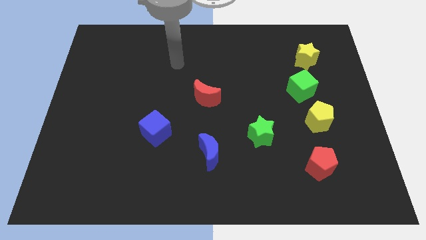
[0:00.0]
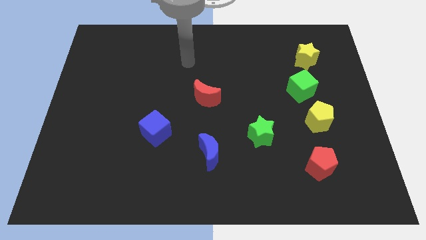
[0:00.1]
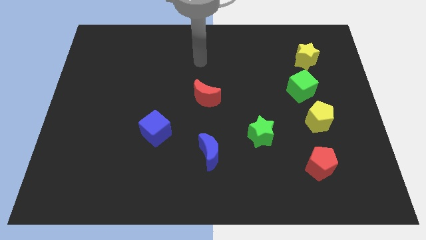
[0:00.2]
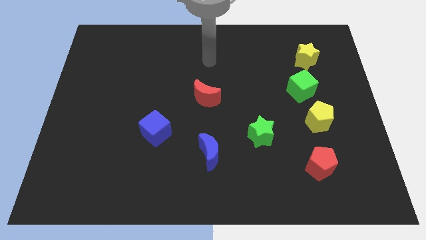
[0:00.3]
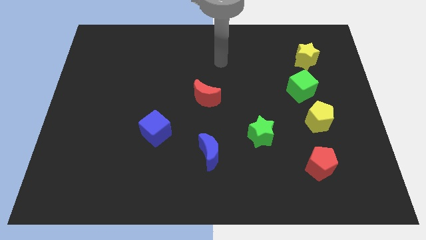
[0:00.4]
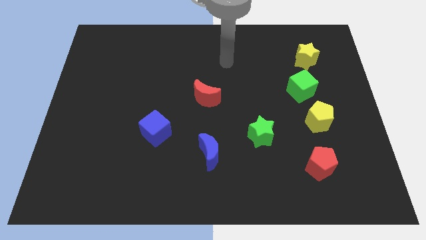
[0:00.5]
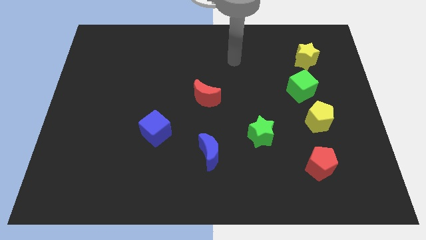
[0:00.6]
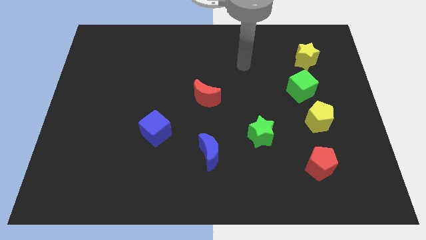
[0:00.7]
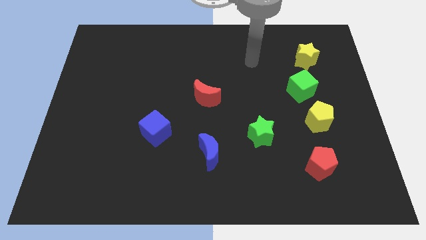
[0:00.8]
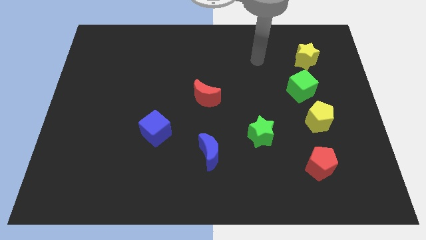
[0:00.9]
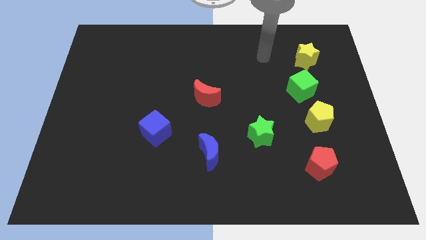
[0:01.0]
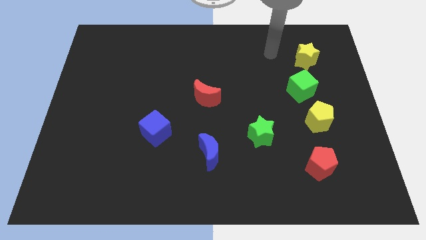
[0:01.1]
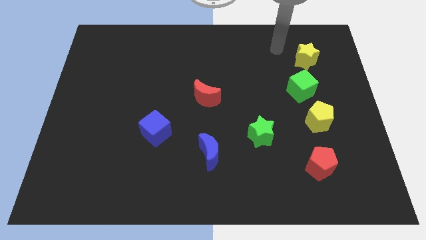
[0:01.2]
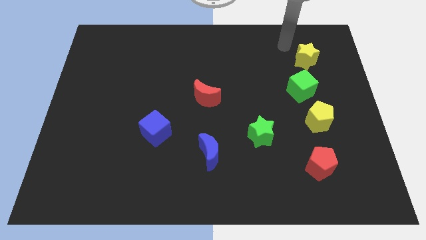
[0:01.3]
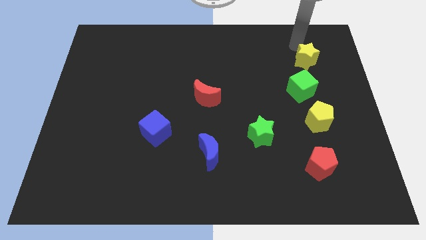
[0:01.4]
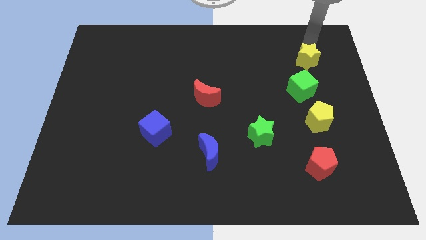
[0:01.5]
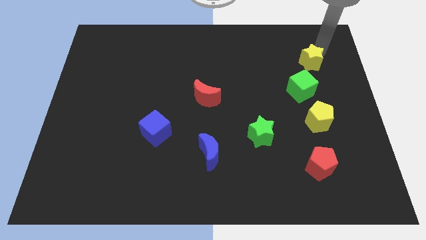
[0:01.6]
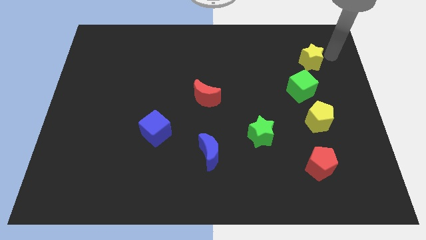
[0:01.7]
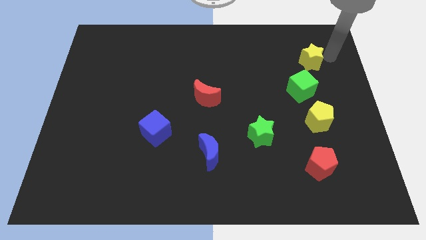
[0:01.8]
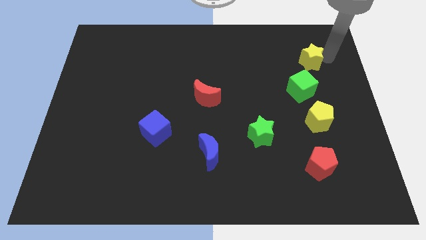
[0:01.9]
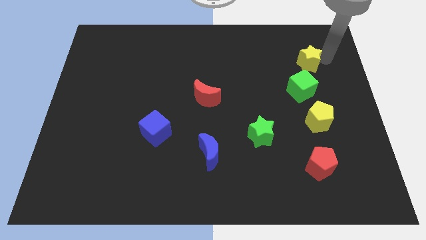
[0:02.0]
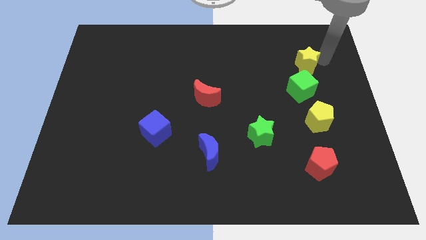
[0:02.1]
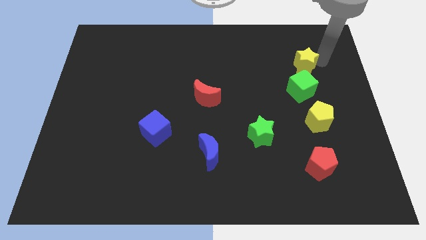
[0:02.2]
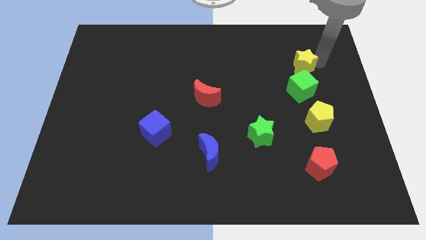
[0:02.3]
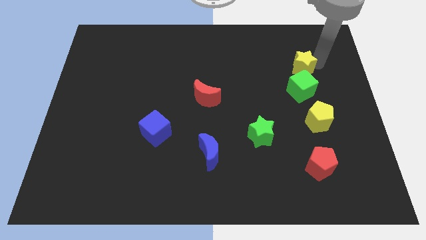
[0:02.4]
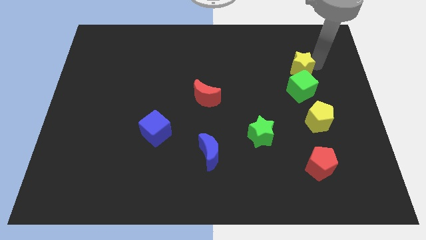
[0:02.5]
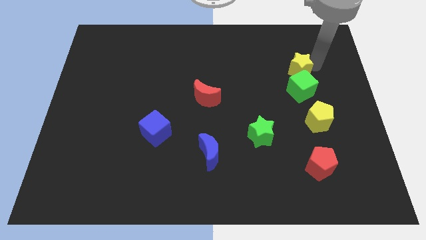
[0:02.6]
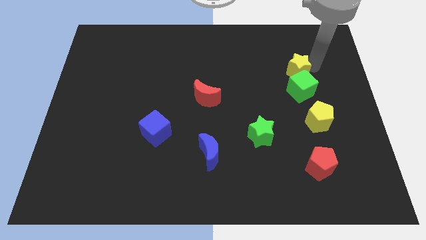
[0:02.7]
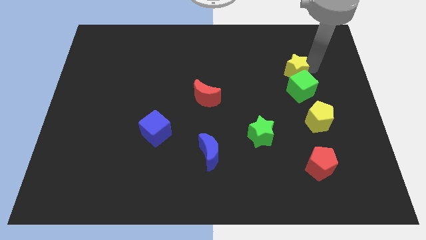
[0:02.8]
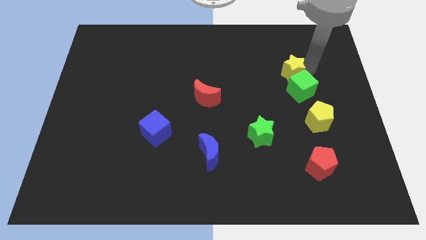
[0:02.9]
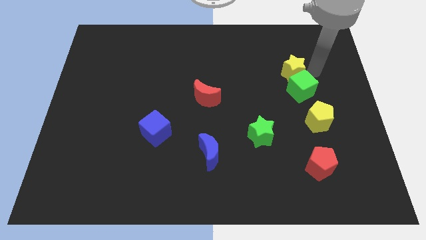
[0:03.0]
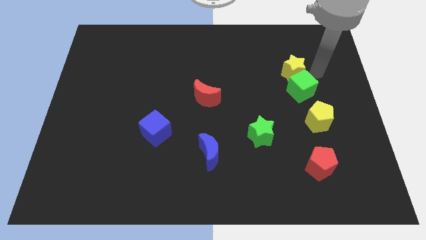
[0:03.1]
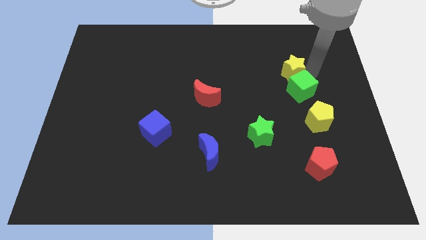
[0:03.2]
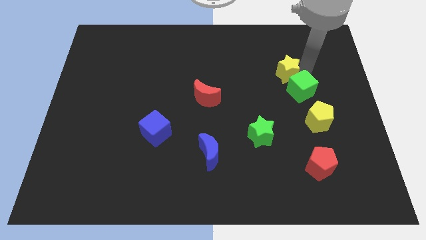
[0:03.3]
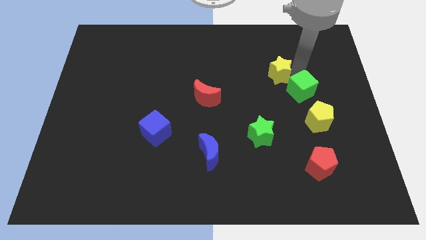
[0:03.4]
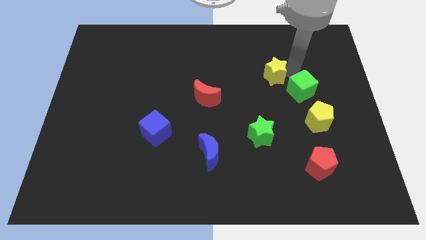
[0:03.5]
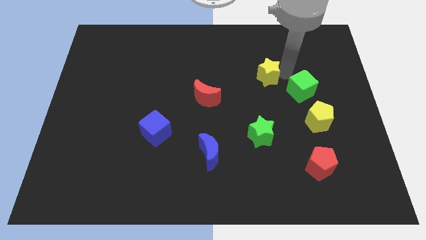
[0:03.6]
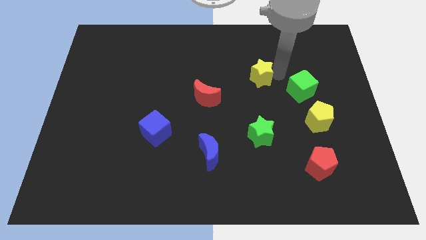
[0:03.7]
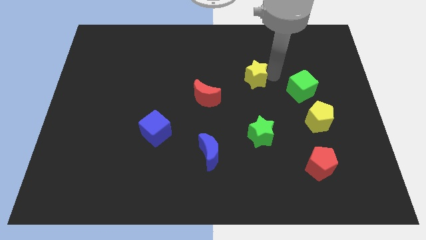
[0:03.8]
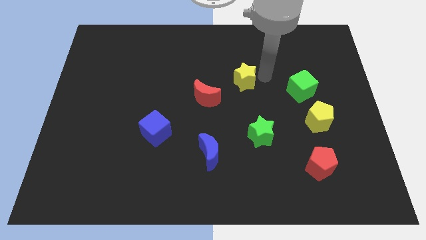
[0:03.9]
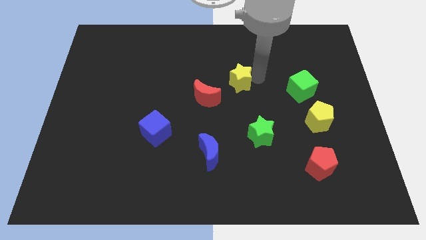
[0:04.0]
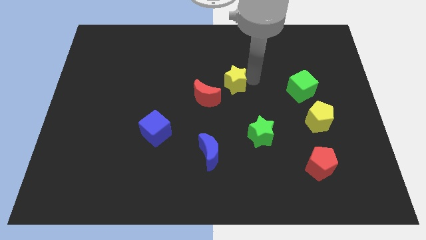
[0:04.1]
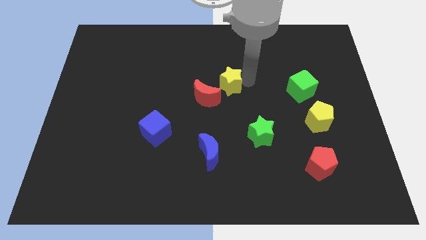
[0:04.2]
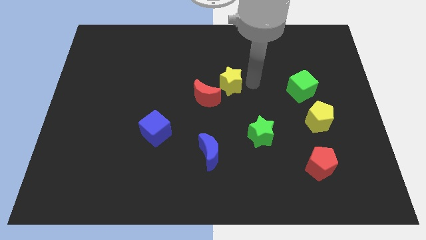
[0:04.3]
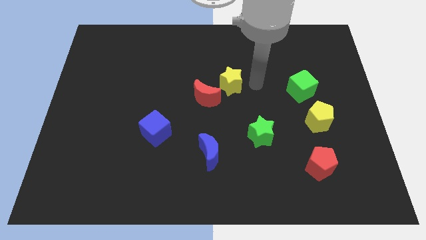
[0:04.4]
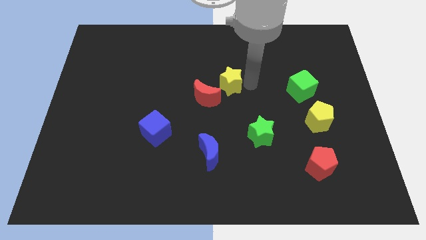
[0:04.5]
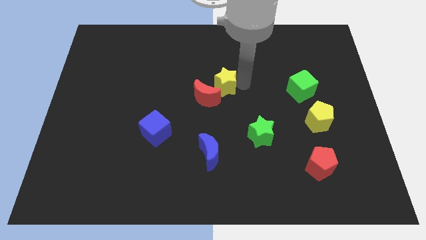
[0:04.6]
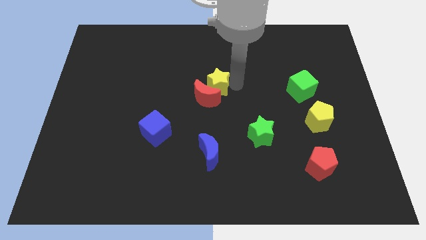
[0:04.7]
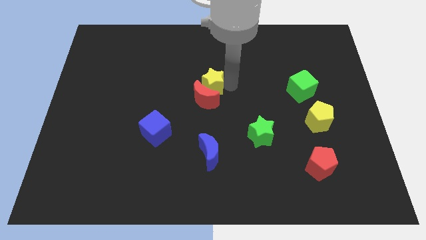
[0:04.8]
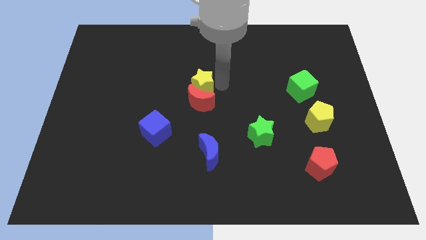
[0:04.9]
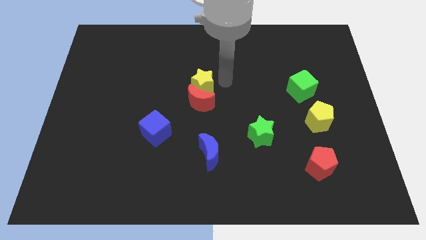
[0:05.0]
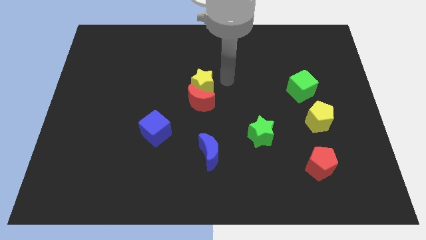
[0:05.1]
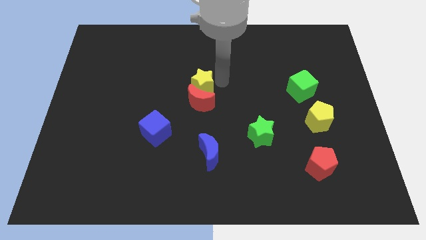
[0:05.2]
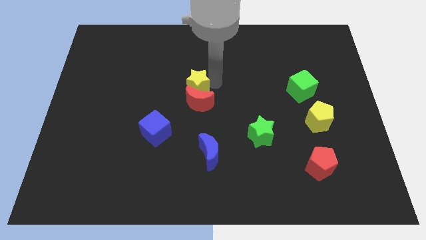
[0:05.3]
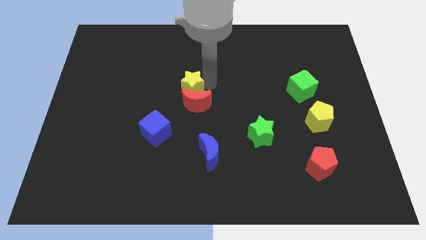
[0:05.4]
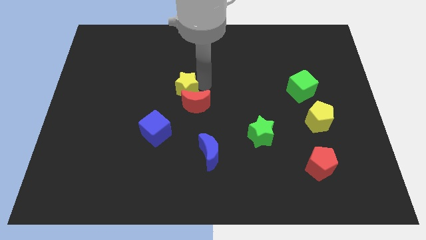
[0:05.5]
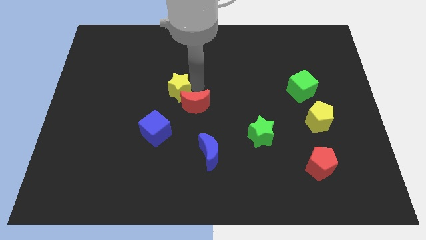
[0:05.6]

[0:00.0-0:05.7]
put the yellow star to the top of the blue cube

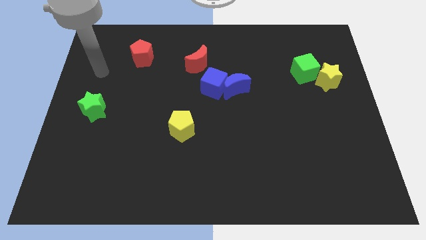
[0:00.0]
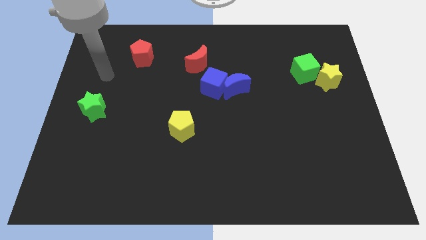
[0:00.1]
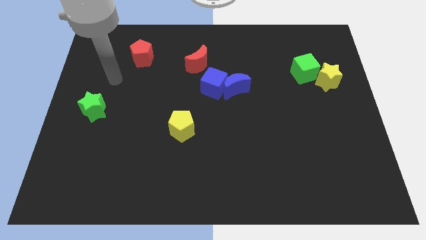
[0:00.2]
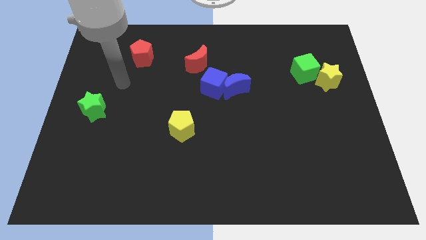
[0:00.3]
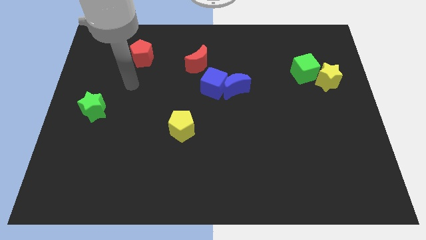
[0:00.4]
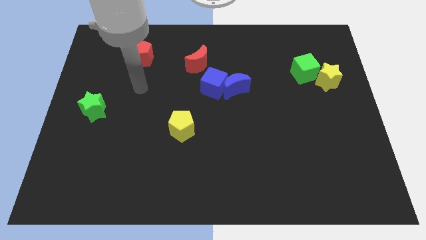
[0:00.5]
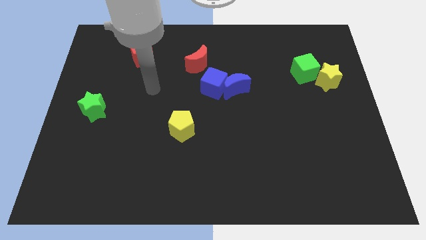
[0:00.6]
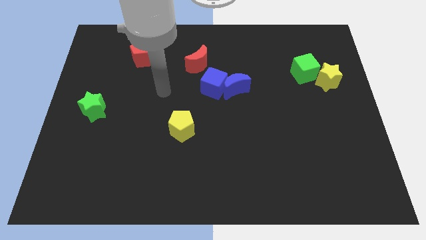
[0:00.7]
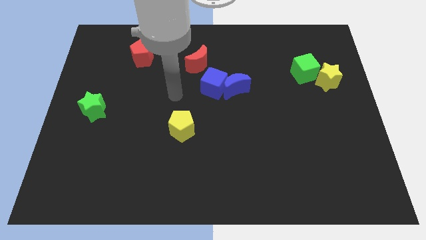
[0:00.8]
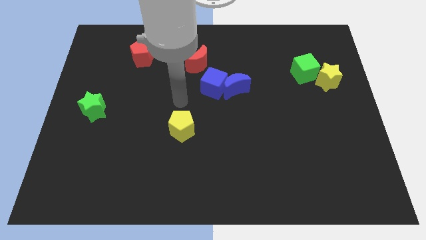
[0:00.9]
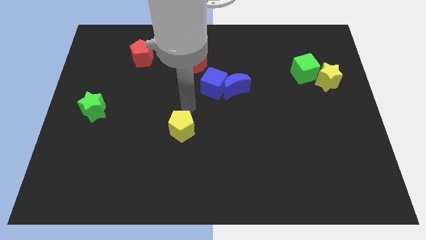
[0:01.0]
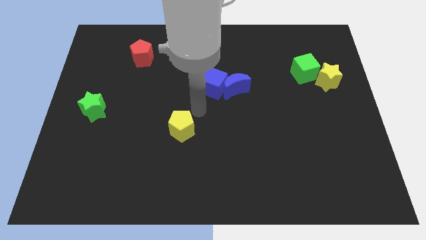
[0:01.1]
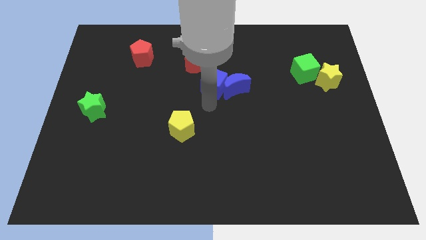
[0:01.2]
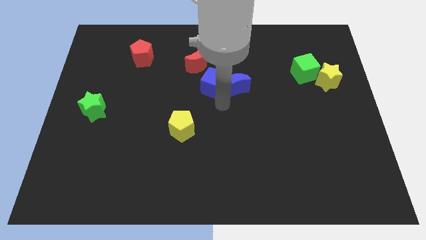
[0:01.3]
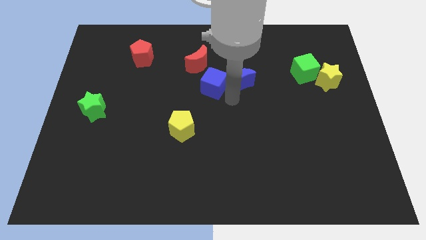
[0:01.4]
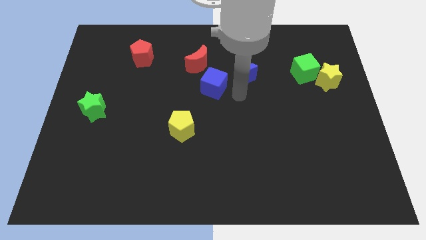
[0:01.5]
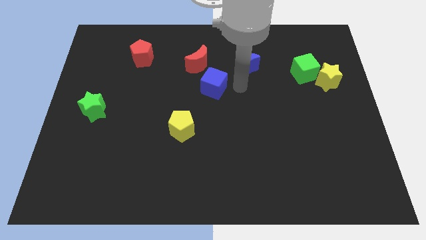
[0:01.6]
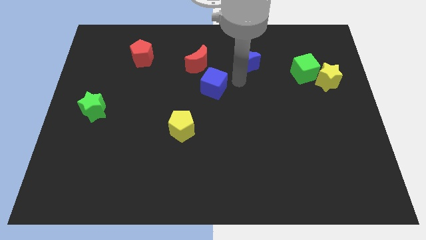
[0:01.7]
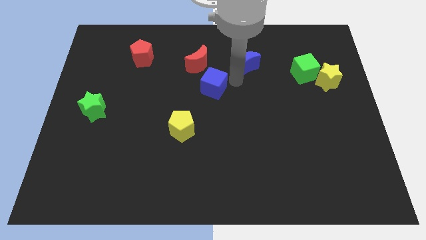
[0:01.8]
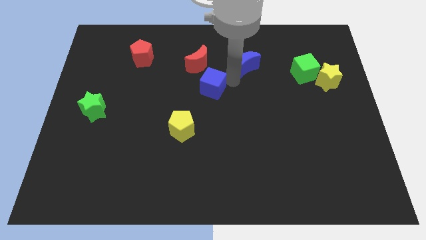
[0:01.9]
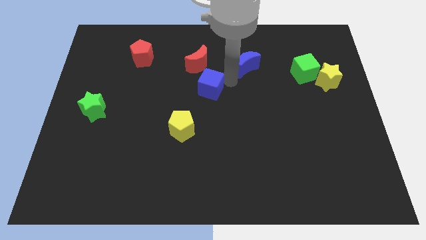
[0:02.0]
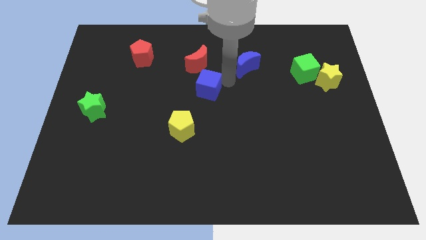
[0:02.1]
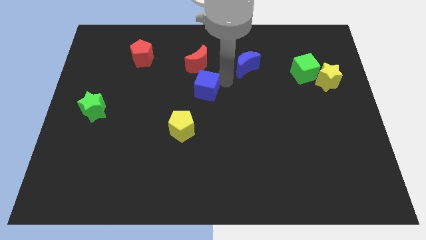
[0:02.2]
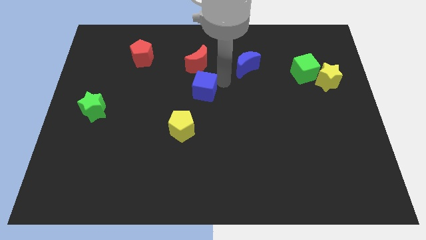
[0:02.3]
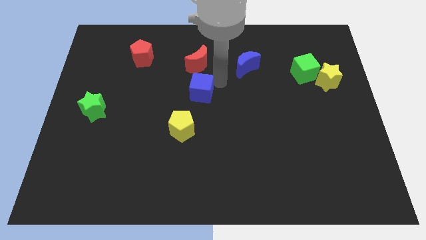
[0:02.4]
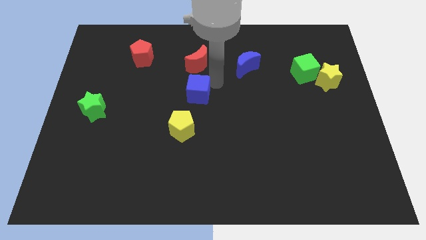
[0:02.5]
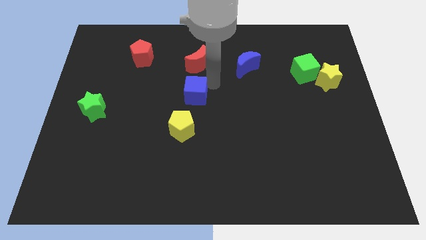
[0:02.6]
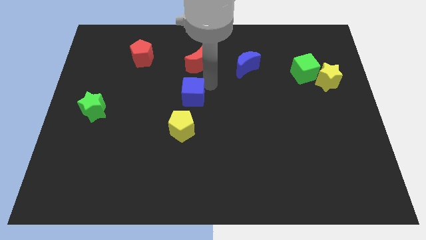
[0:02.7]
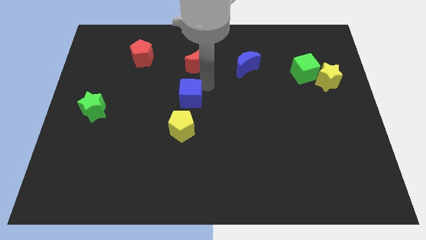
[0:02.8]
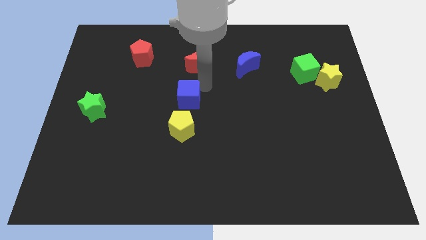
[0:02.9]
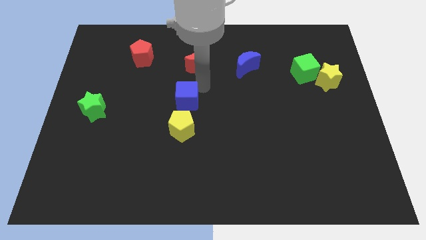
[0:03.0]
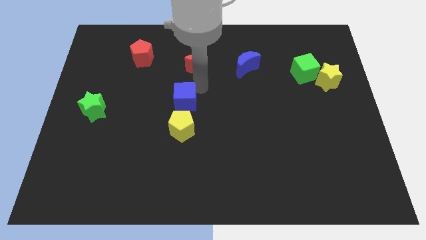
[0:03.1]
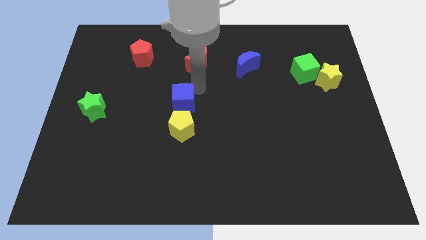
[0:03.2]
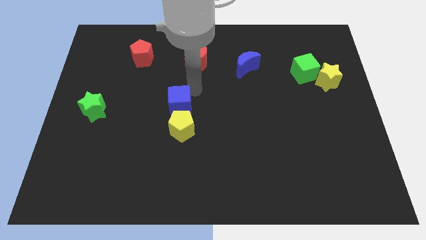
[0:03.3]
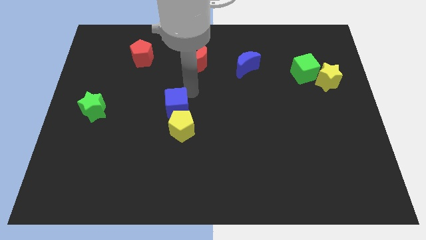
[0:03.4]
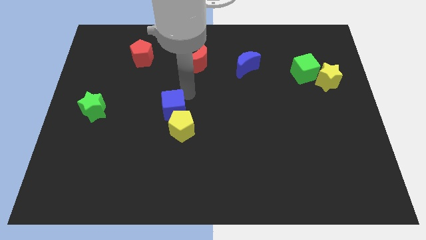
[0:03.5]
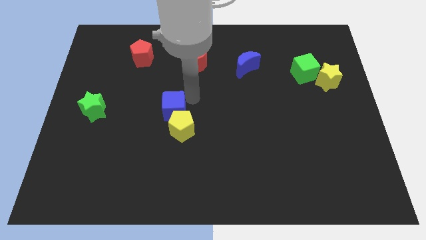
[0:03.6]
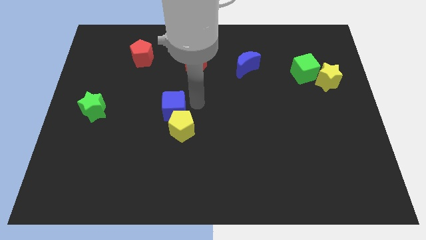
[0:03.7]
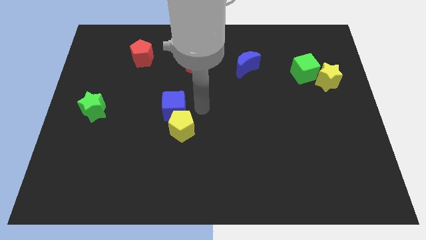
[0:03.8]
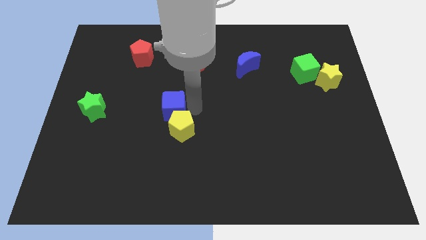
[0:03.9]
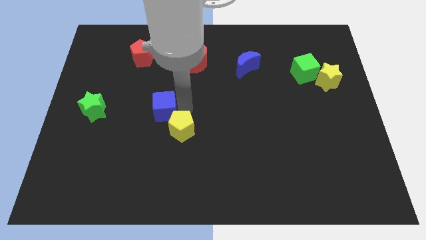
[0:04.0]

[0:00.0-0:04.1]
move the blue cube right of the green star
